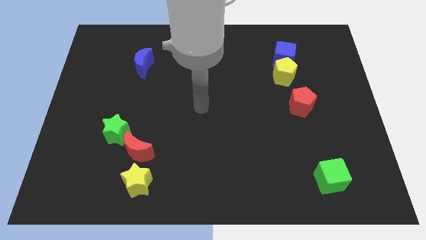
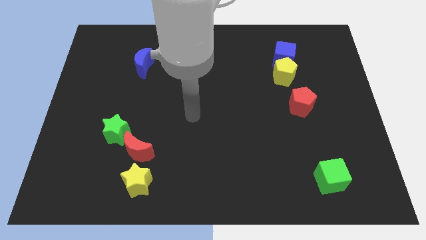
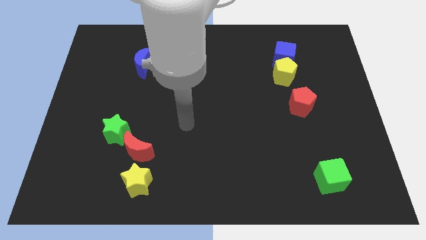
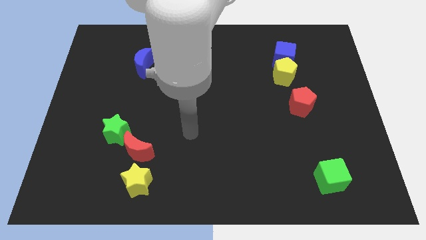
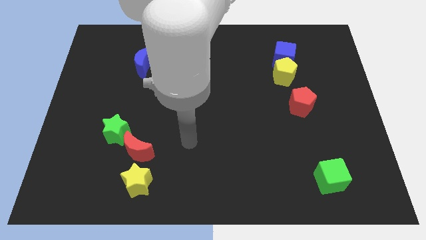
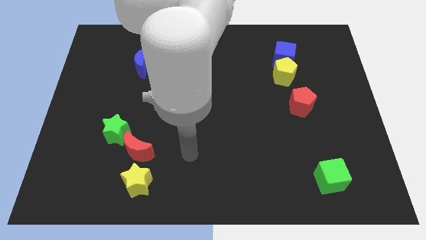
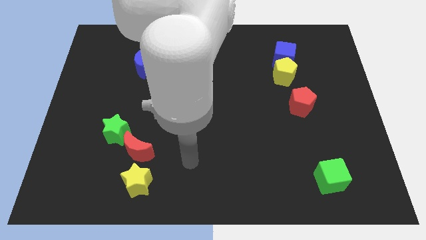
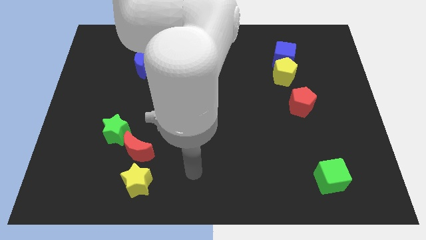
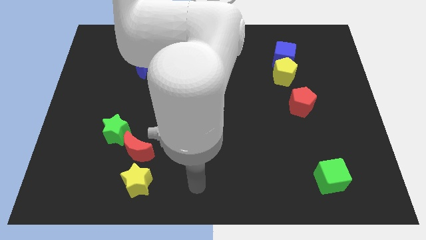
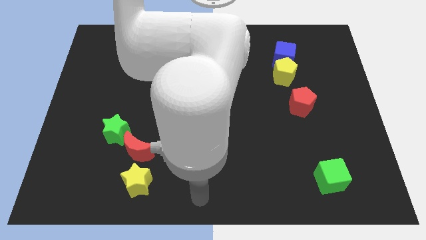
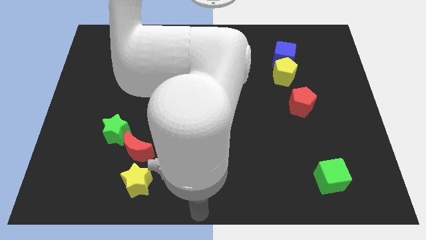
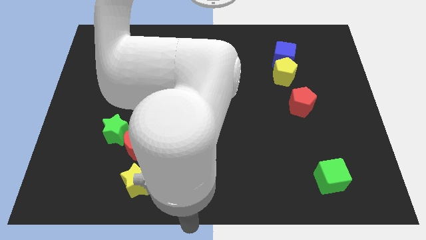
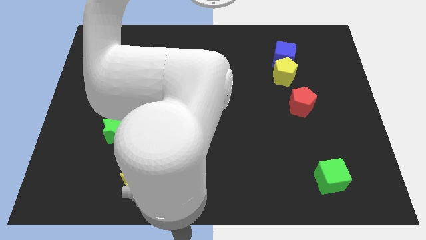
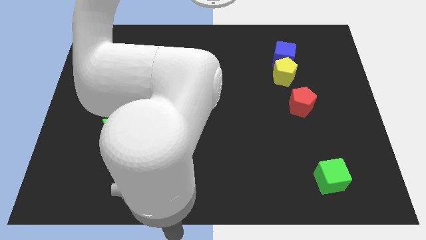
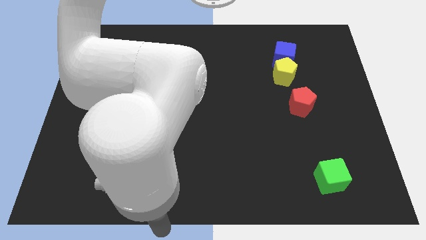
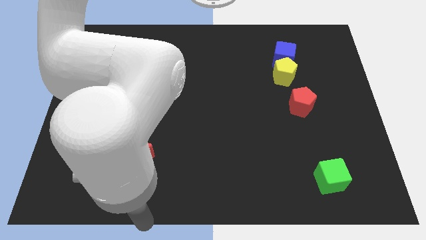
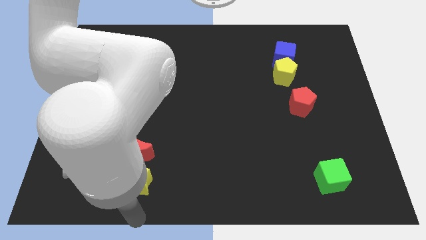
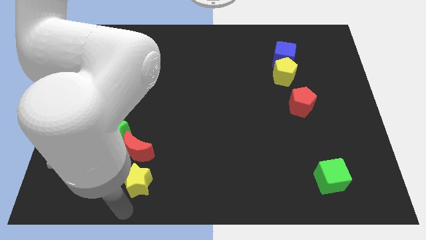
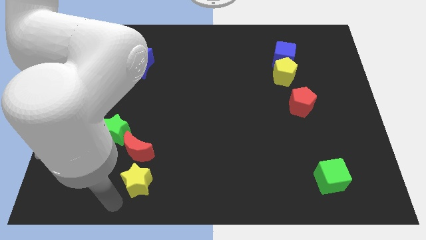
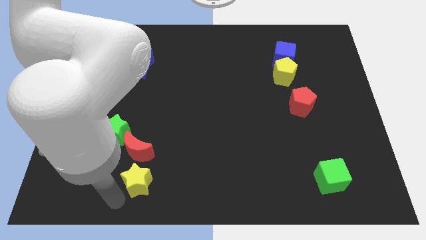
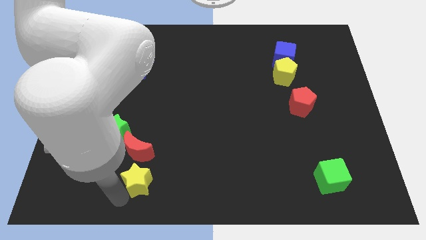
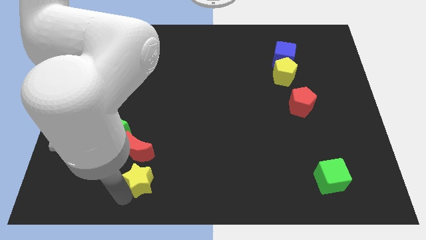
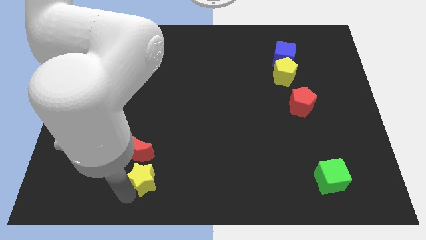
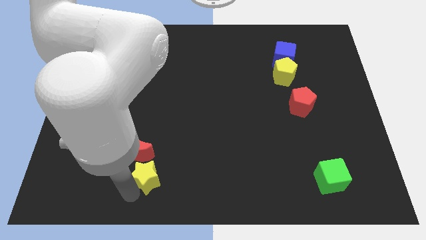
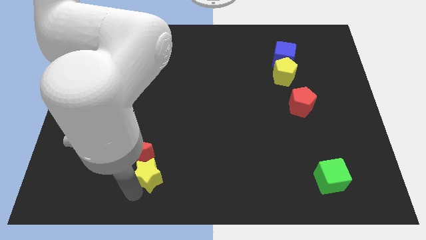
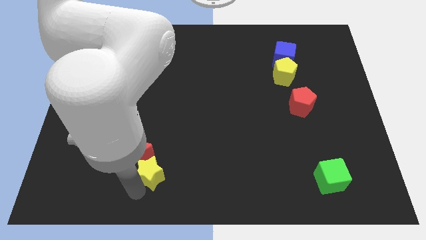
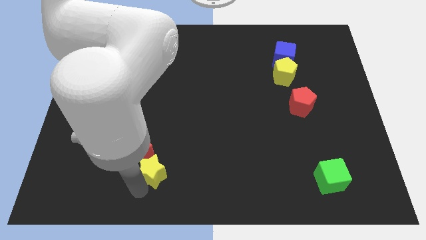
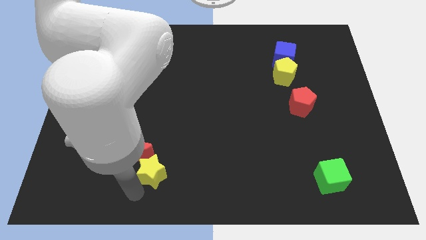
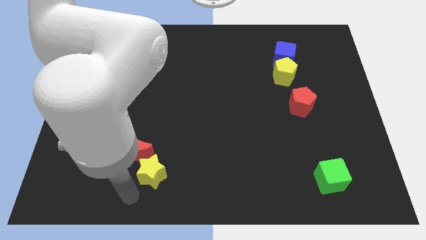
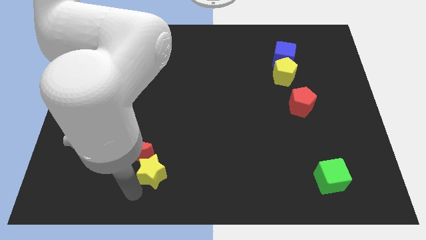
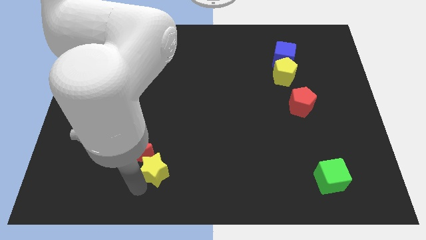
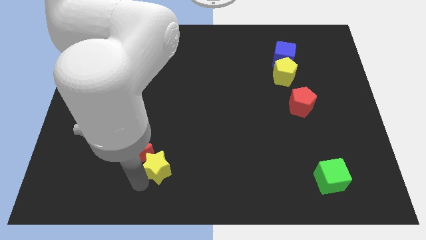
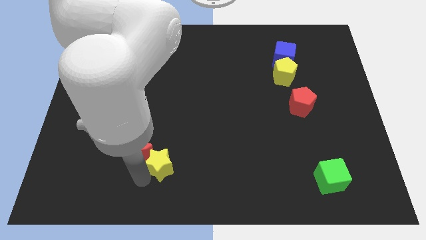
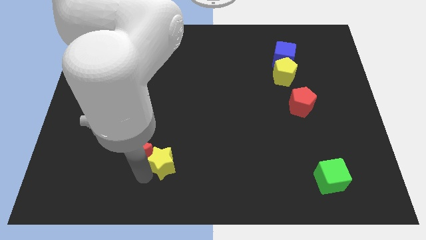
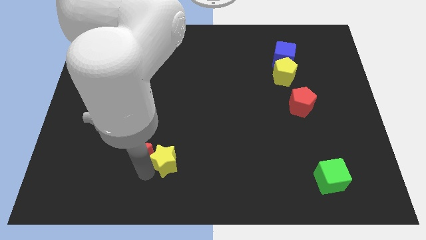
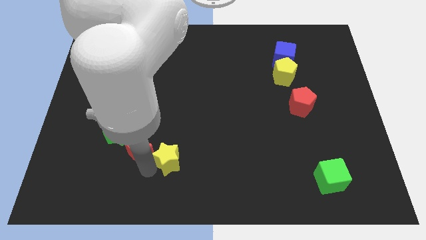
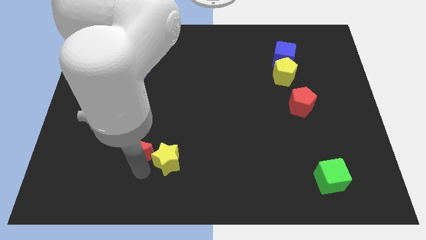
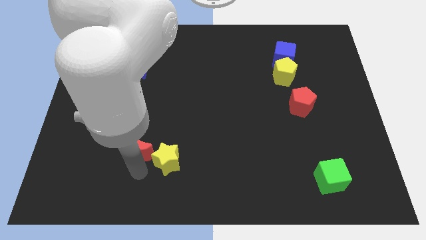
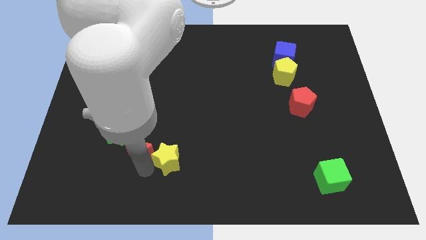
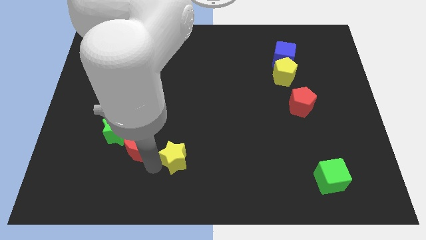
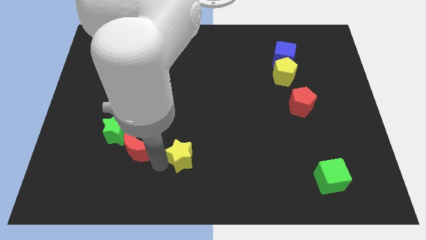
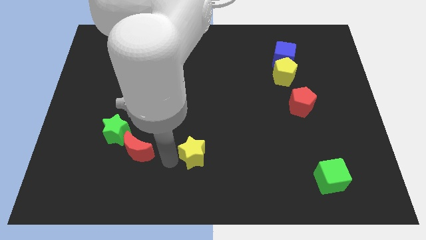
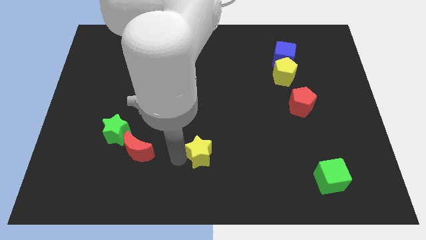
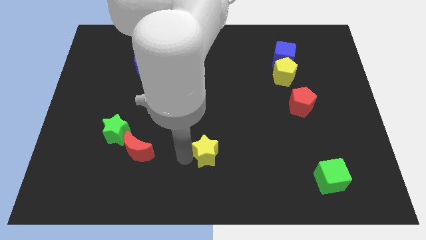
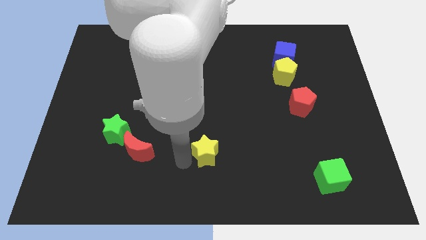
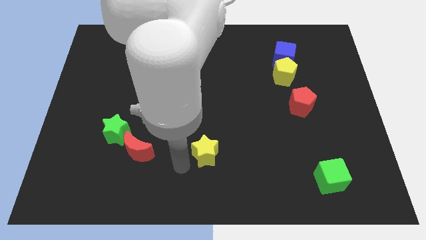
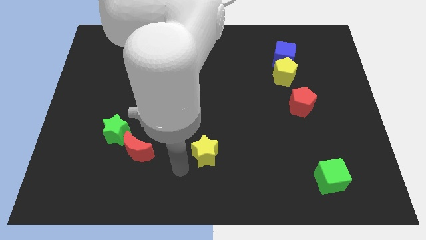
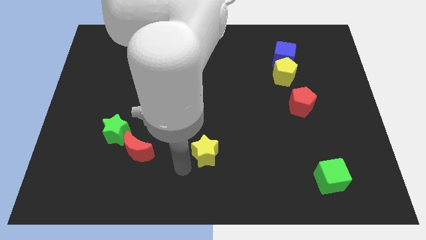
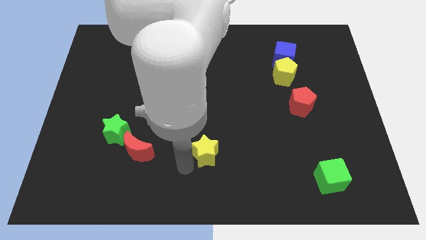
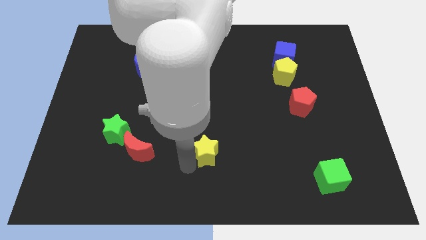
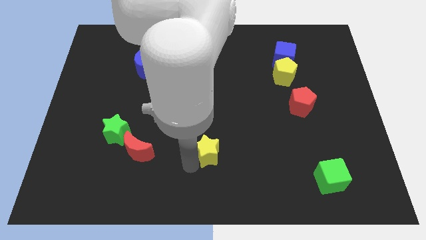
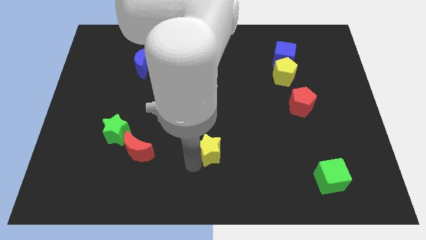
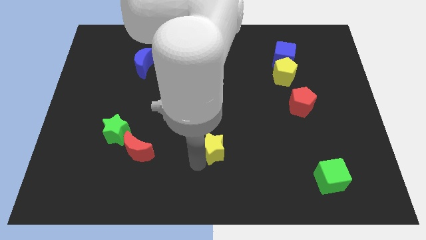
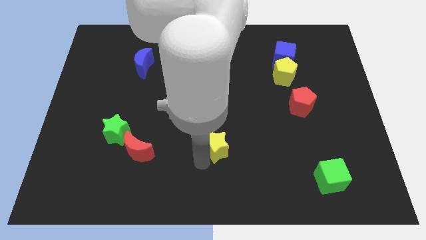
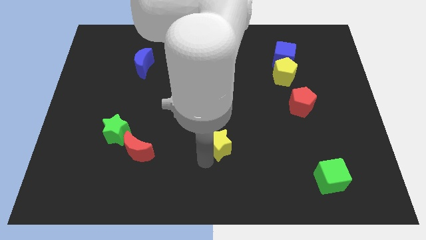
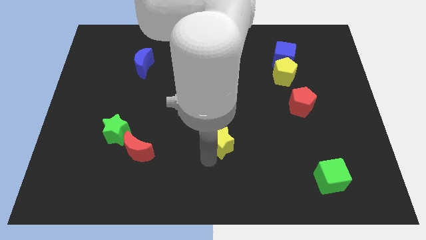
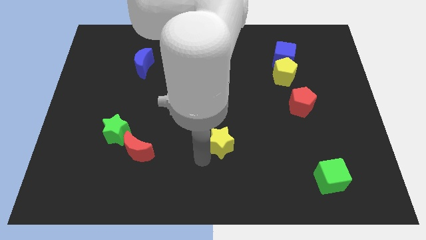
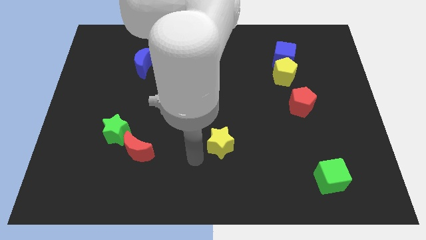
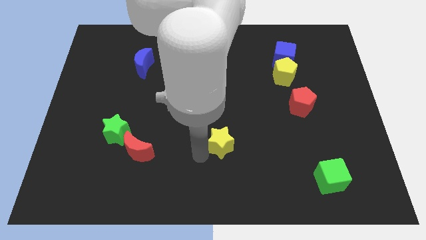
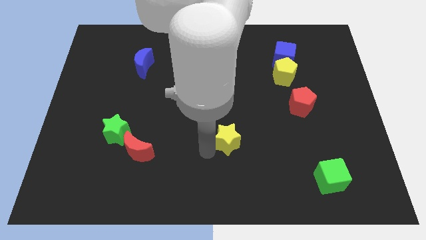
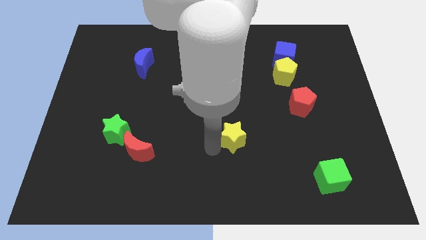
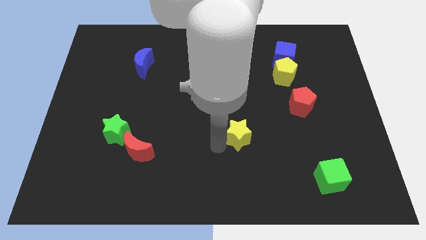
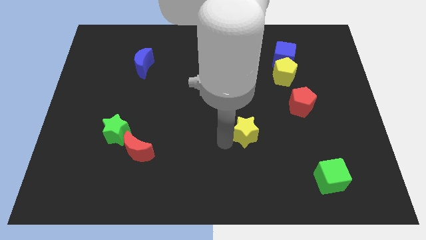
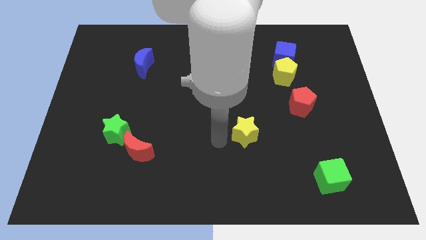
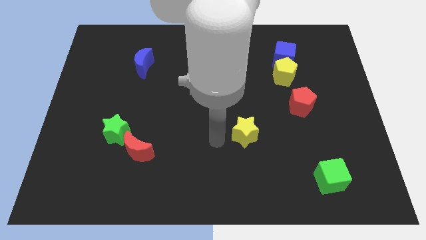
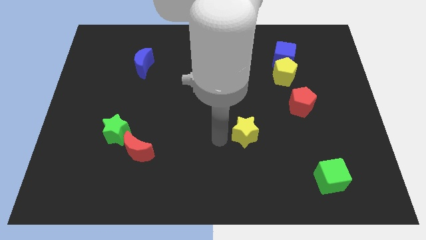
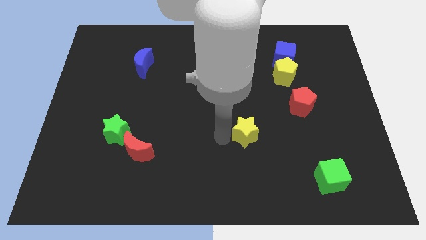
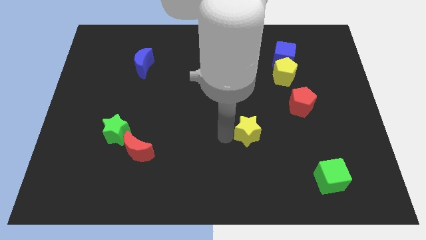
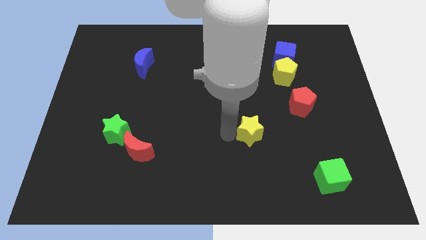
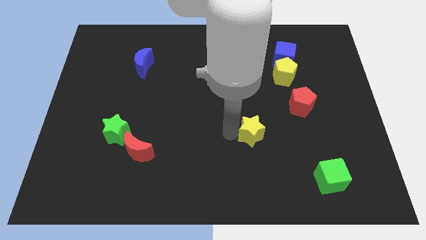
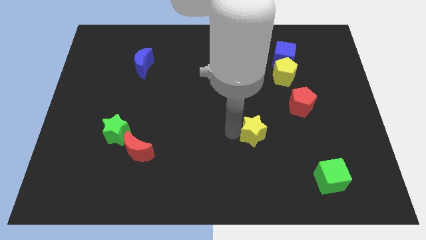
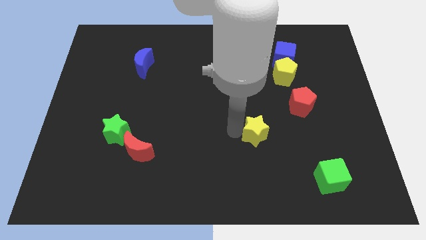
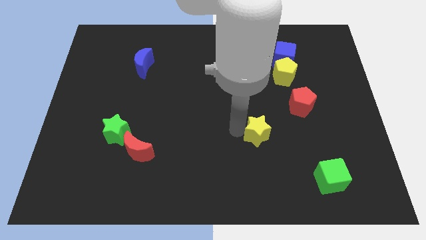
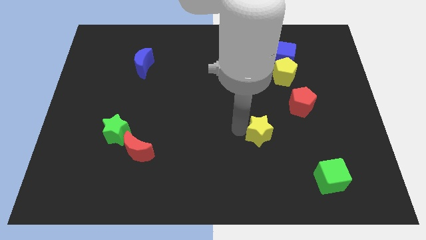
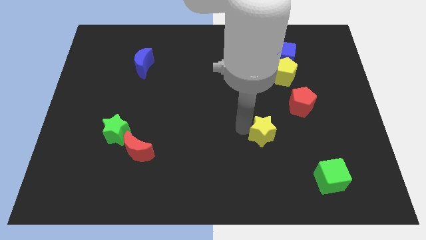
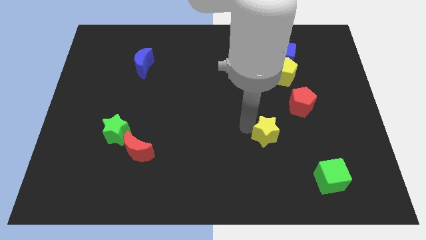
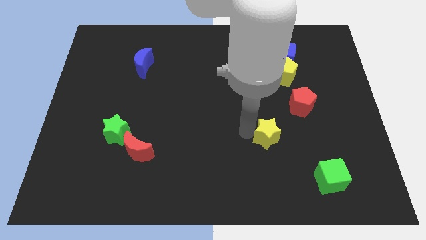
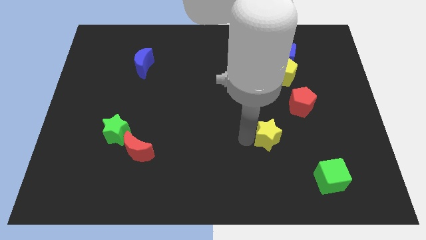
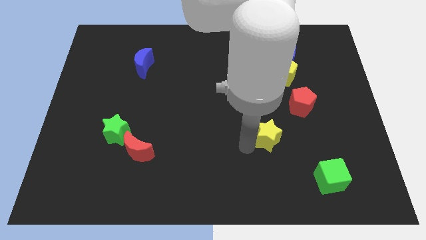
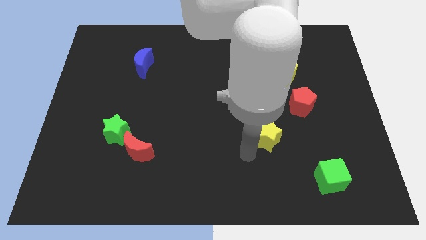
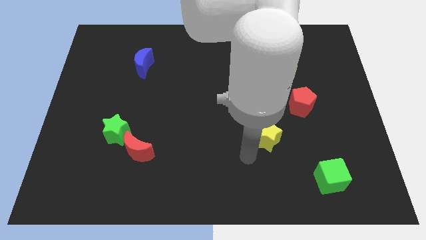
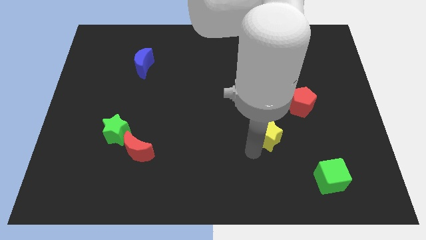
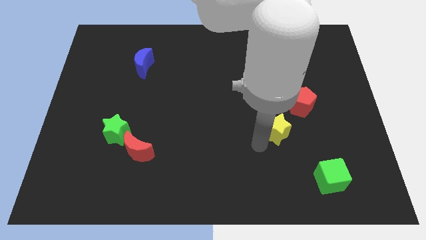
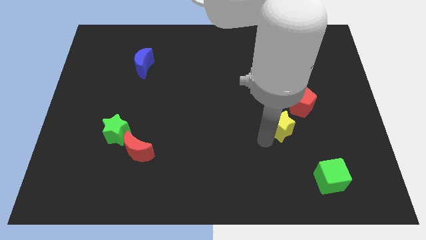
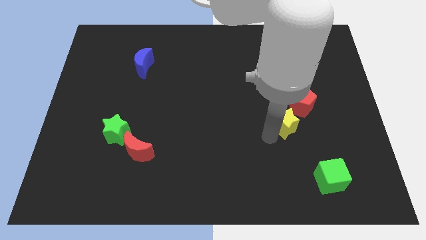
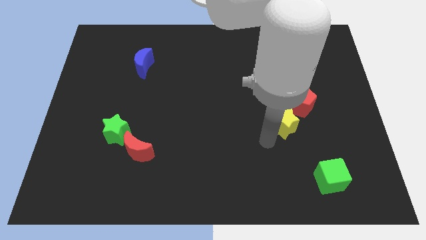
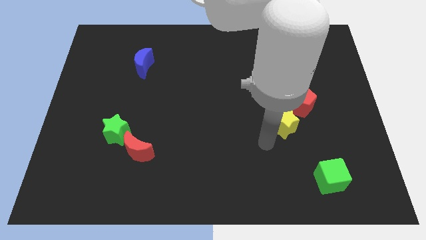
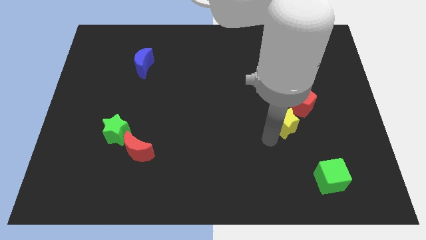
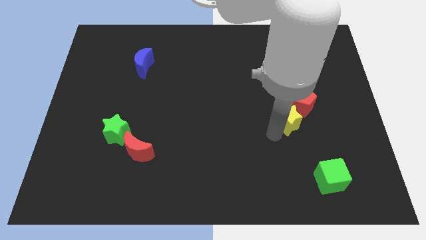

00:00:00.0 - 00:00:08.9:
push the yellow star towards the red pentagon
